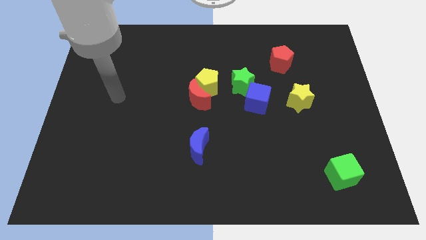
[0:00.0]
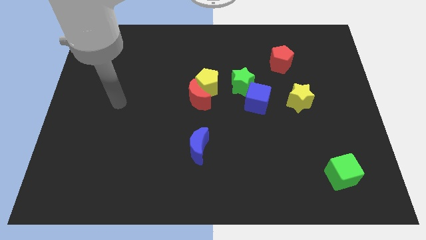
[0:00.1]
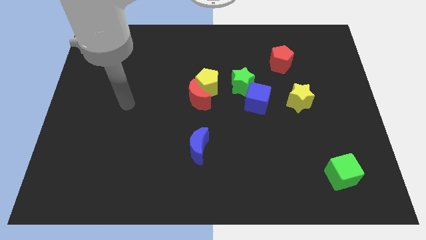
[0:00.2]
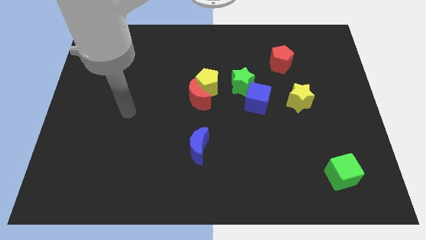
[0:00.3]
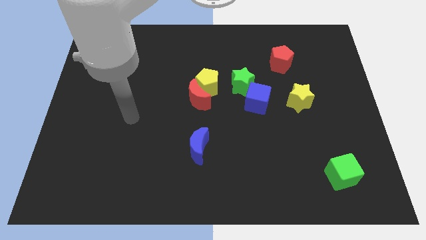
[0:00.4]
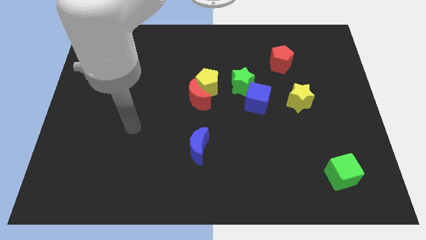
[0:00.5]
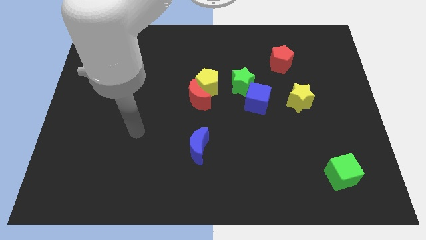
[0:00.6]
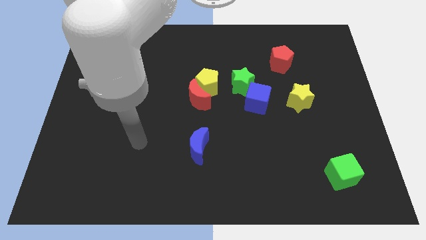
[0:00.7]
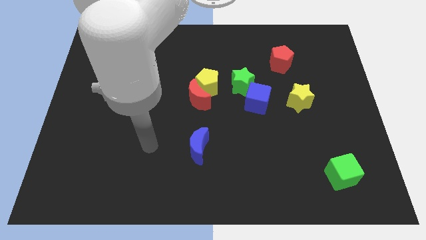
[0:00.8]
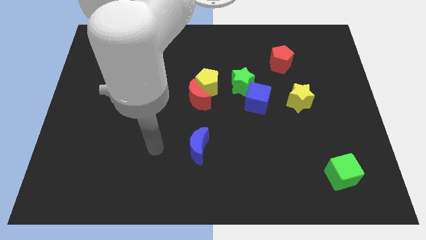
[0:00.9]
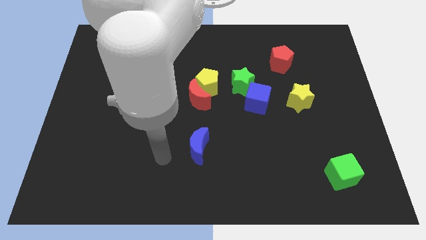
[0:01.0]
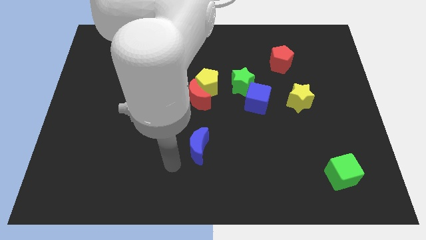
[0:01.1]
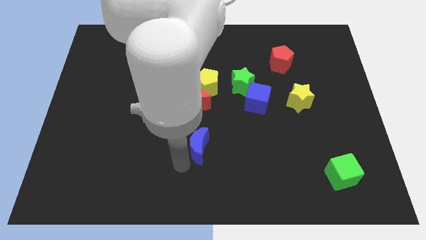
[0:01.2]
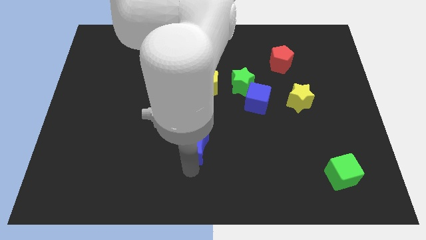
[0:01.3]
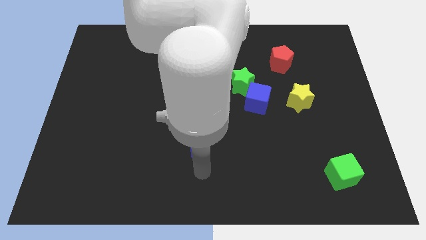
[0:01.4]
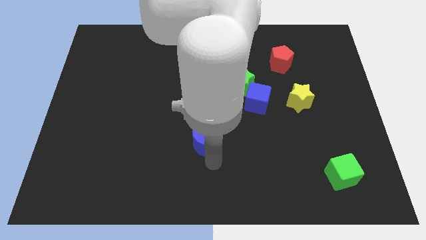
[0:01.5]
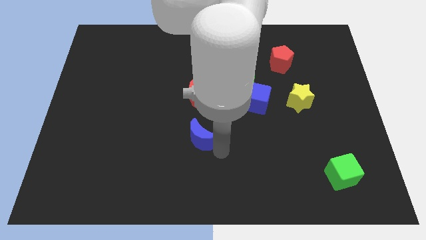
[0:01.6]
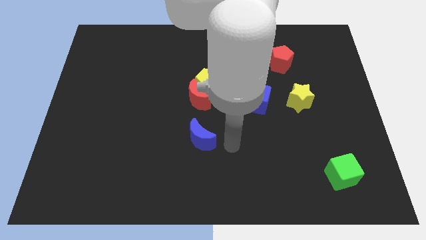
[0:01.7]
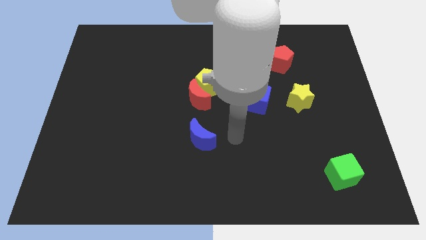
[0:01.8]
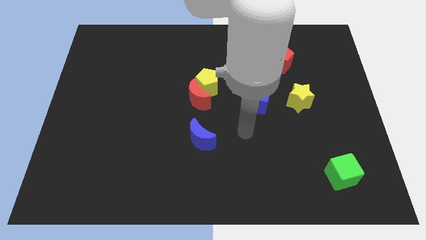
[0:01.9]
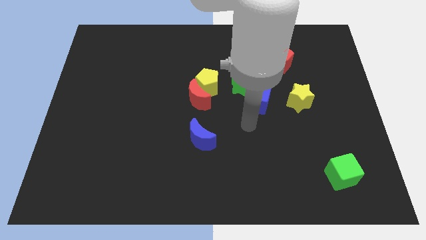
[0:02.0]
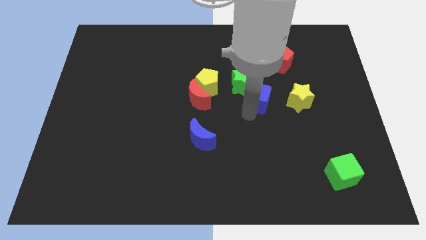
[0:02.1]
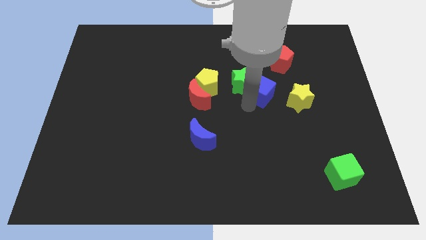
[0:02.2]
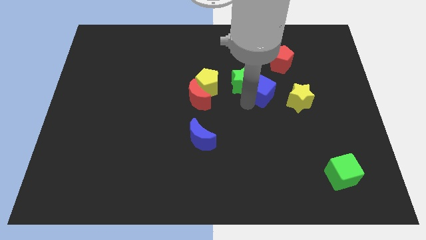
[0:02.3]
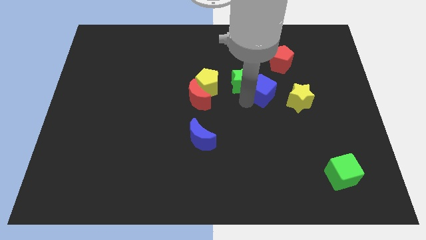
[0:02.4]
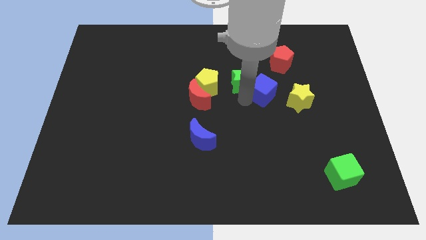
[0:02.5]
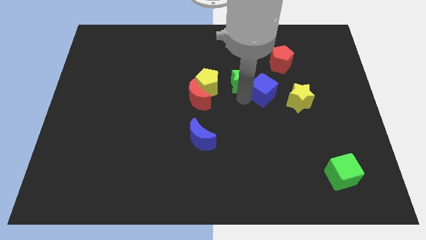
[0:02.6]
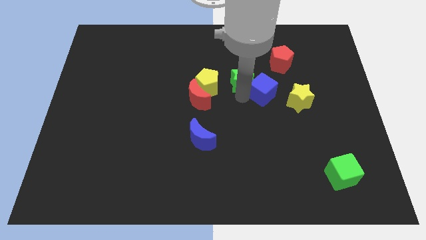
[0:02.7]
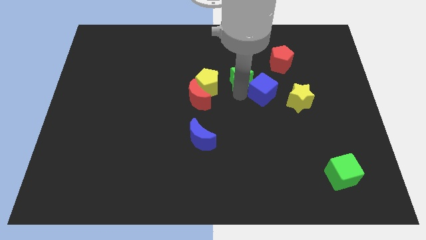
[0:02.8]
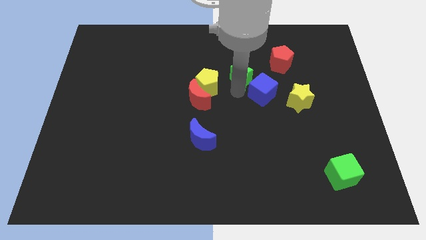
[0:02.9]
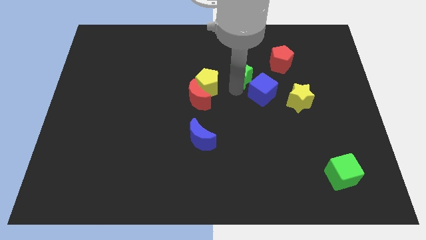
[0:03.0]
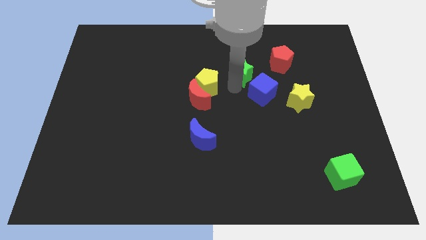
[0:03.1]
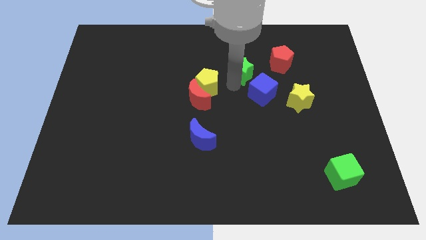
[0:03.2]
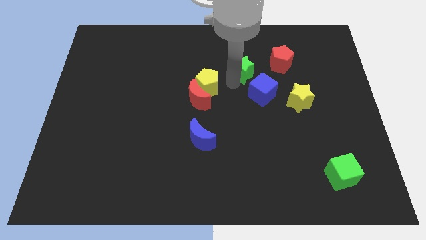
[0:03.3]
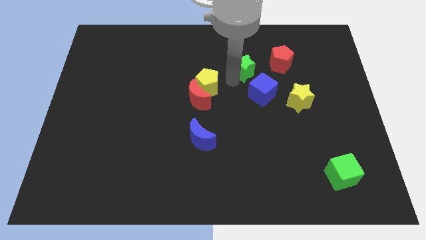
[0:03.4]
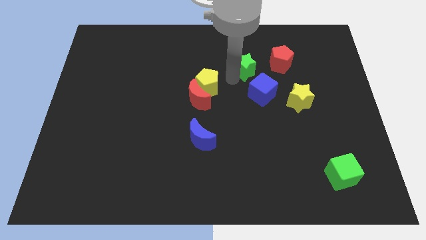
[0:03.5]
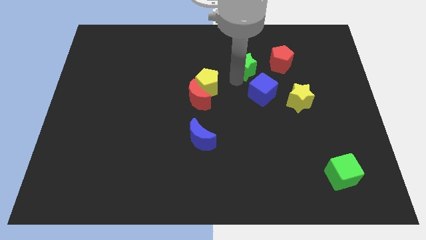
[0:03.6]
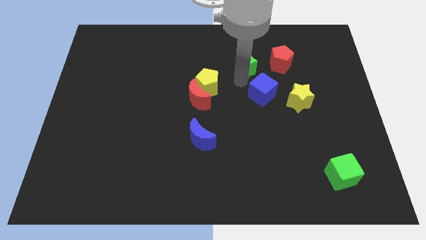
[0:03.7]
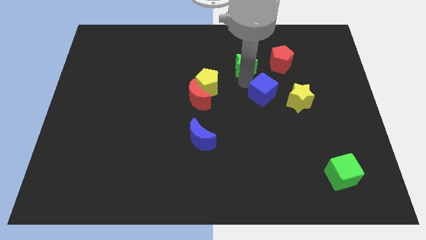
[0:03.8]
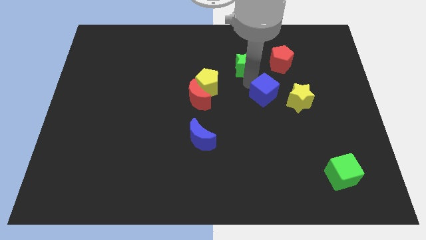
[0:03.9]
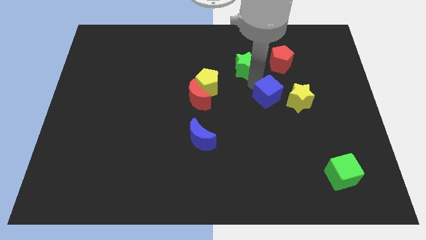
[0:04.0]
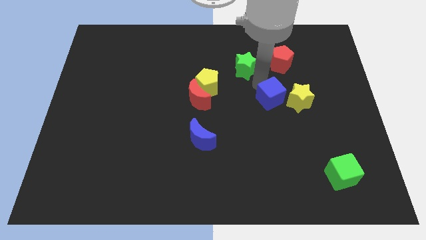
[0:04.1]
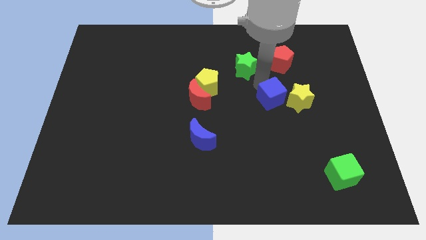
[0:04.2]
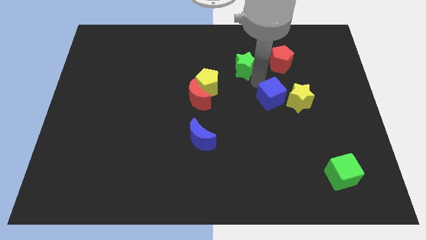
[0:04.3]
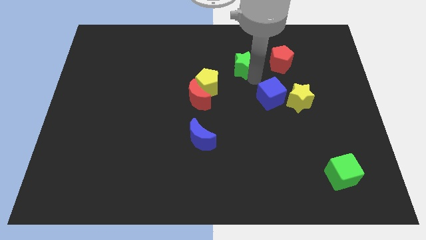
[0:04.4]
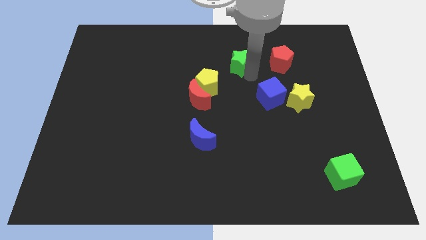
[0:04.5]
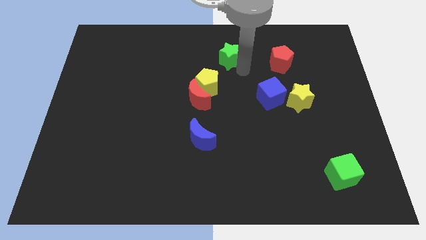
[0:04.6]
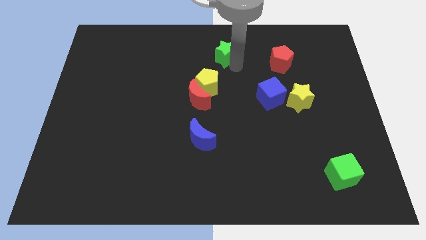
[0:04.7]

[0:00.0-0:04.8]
push the green star to the top side

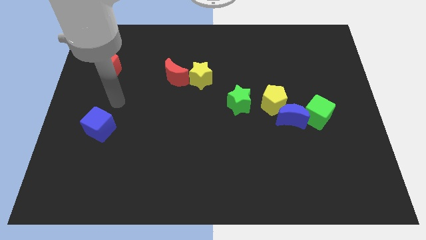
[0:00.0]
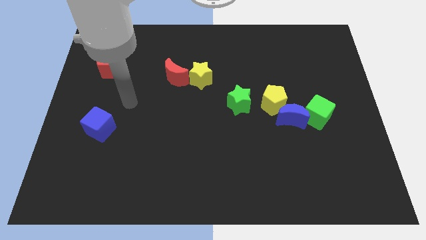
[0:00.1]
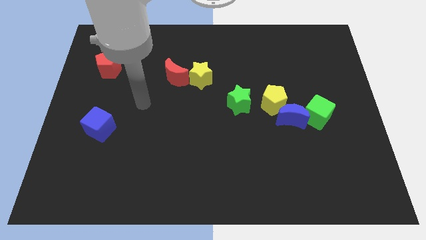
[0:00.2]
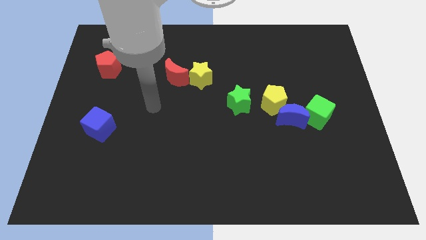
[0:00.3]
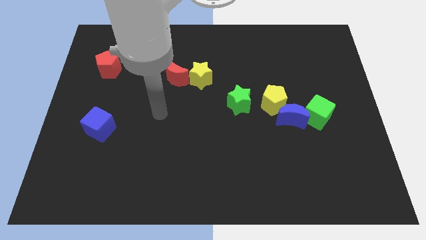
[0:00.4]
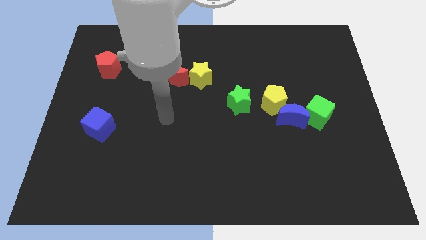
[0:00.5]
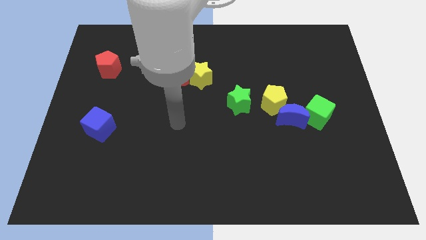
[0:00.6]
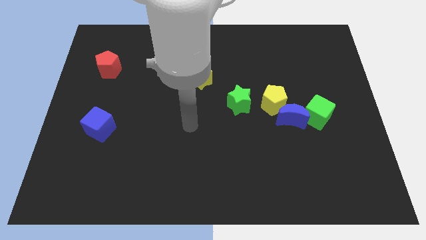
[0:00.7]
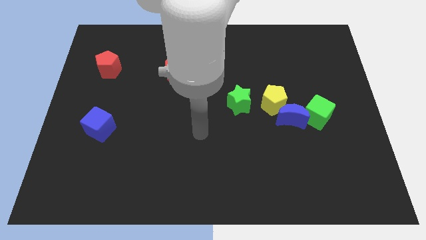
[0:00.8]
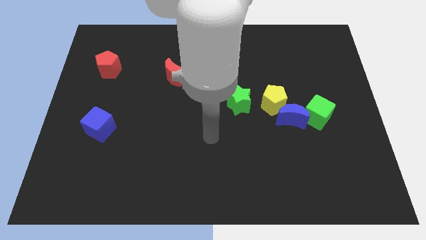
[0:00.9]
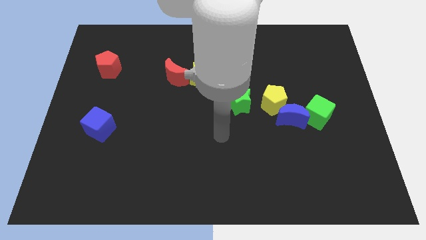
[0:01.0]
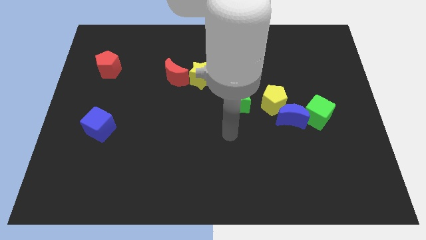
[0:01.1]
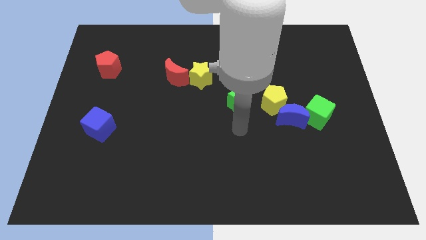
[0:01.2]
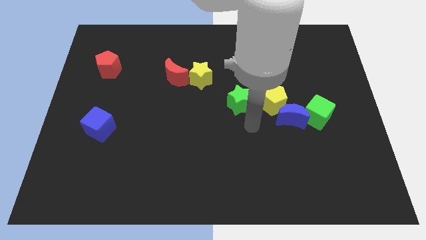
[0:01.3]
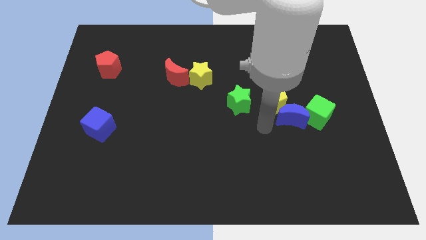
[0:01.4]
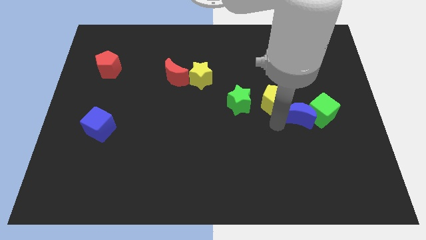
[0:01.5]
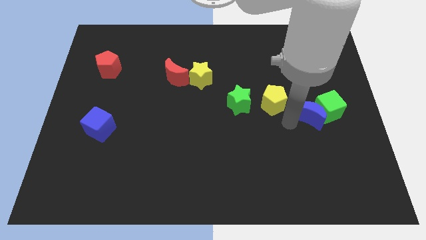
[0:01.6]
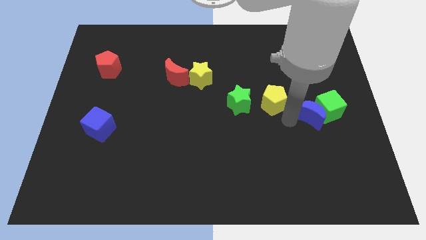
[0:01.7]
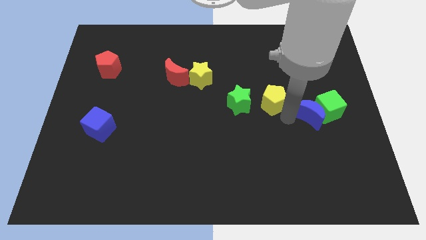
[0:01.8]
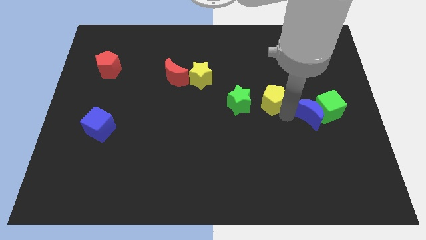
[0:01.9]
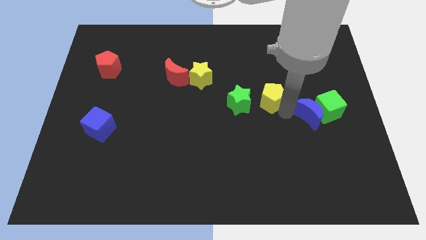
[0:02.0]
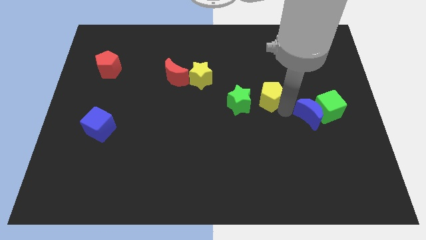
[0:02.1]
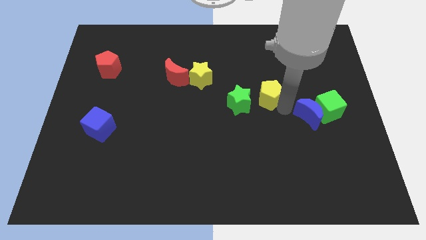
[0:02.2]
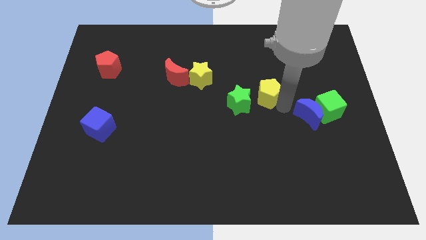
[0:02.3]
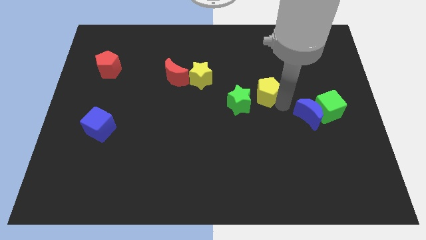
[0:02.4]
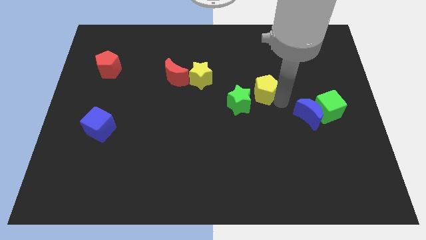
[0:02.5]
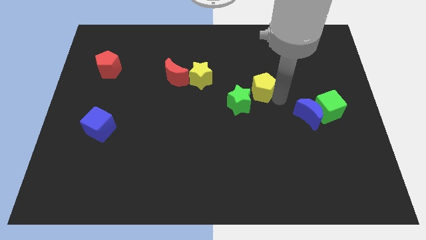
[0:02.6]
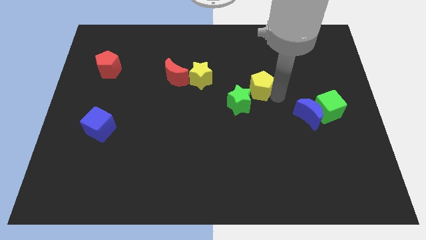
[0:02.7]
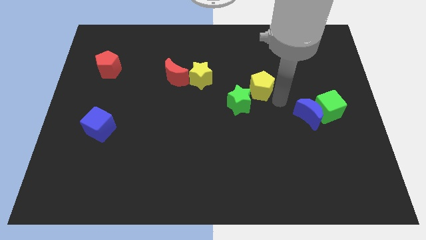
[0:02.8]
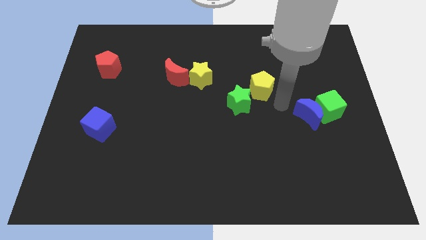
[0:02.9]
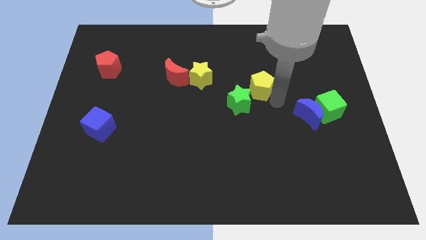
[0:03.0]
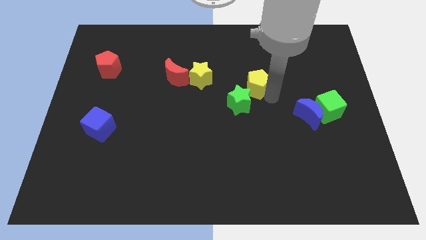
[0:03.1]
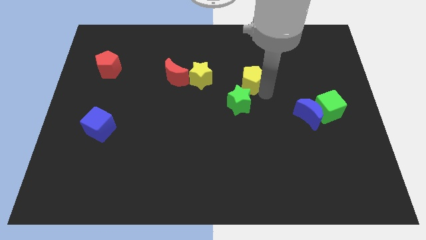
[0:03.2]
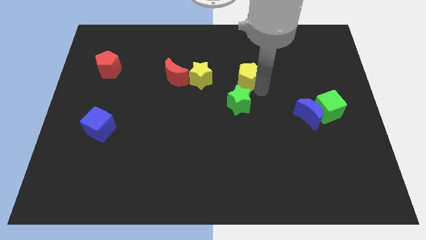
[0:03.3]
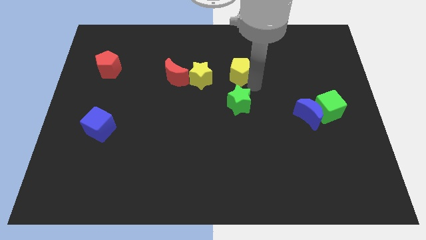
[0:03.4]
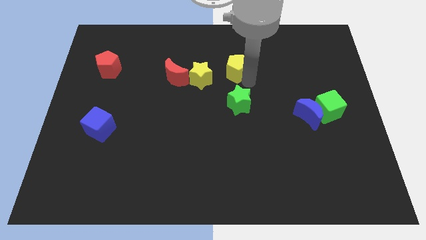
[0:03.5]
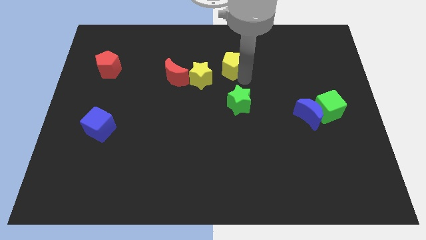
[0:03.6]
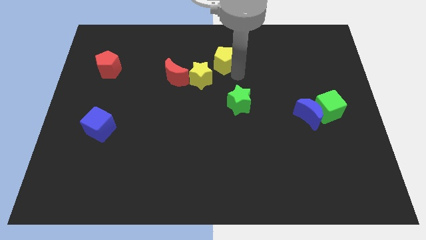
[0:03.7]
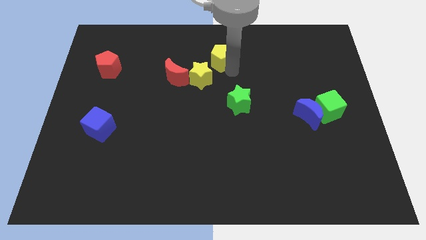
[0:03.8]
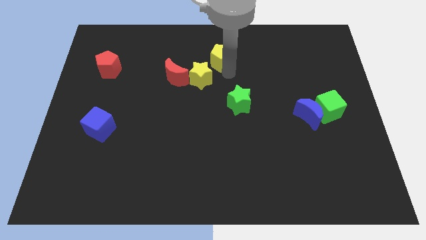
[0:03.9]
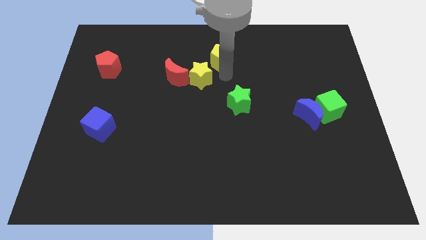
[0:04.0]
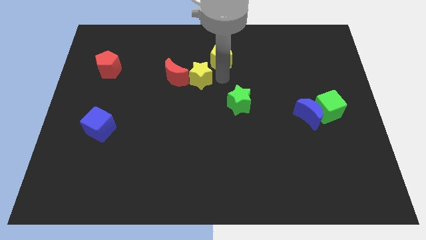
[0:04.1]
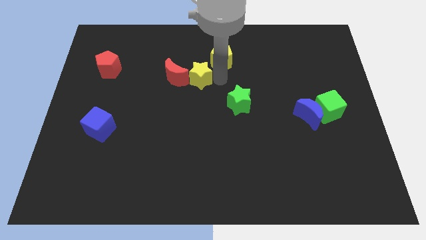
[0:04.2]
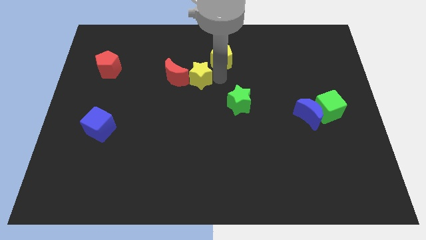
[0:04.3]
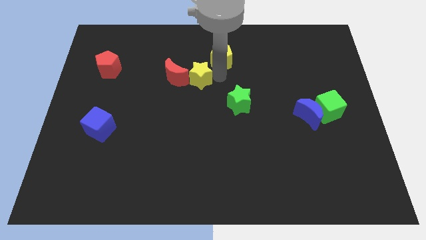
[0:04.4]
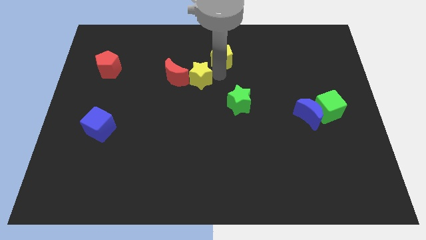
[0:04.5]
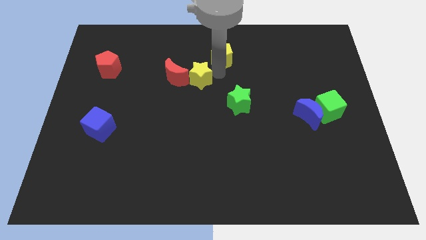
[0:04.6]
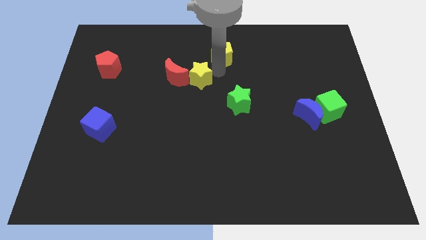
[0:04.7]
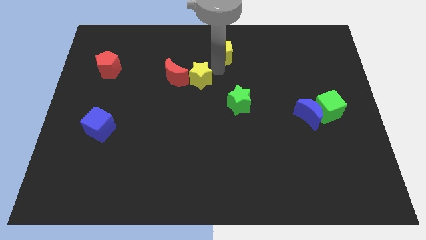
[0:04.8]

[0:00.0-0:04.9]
slide the yellow pentagon to the towards your base
